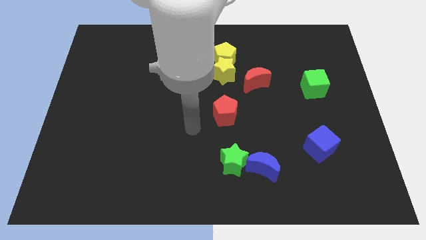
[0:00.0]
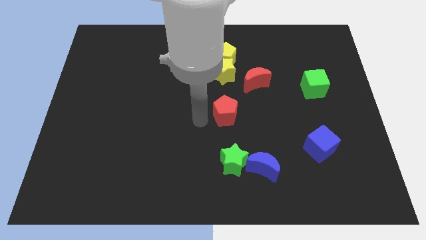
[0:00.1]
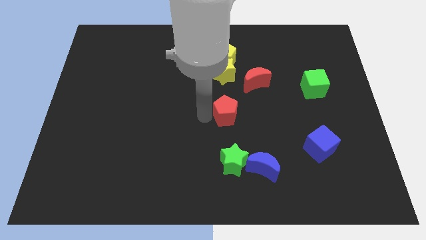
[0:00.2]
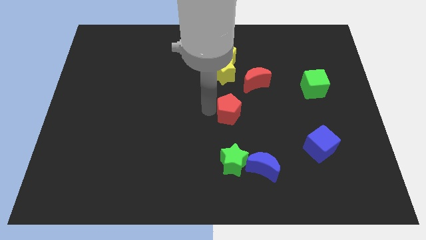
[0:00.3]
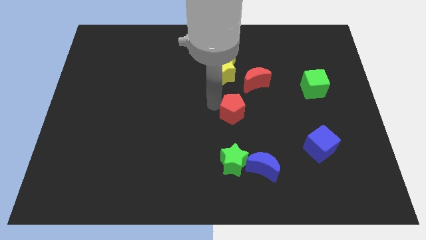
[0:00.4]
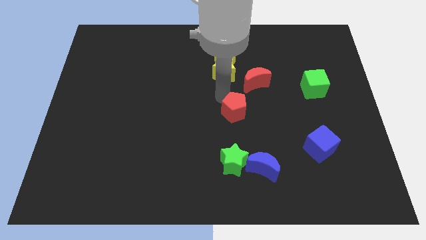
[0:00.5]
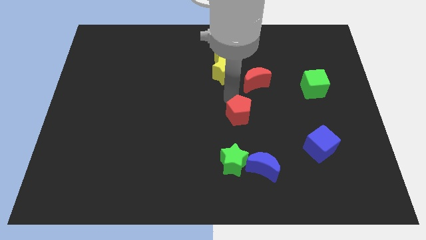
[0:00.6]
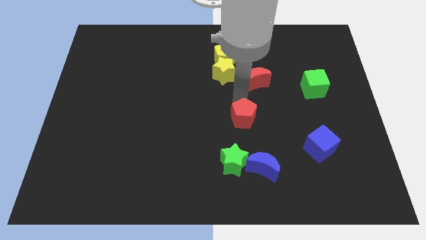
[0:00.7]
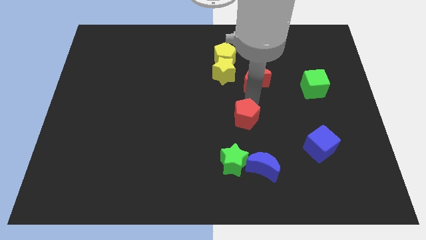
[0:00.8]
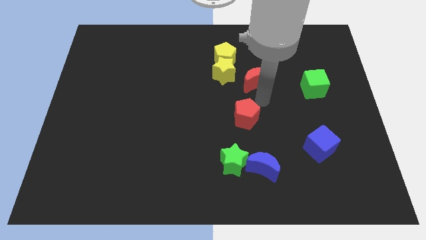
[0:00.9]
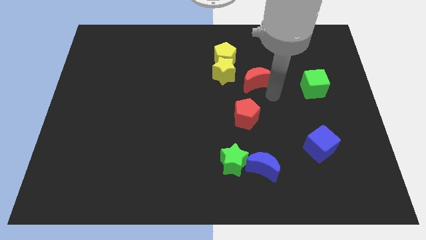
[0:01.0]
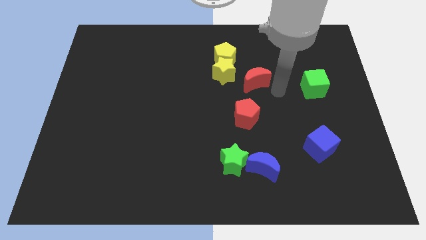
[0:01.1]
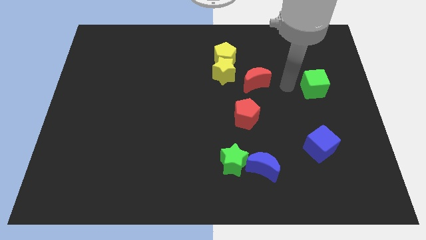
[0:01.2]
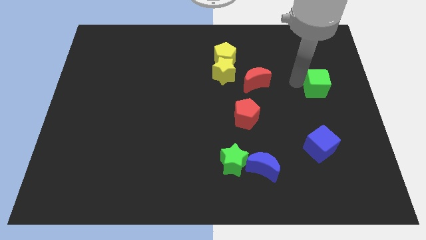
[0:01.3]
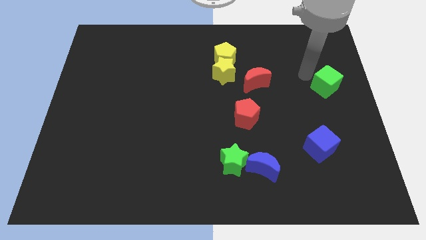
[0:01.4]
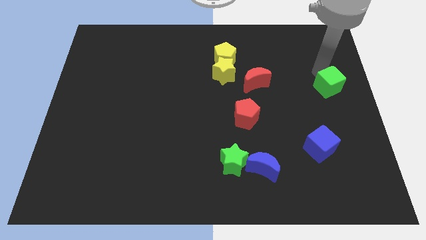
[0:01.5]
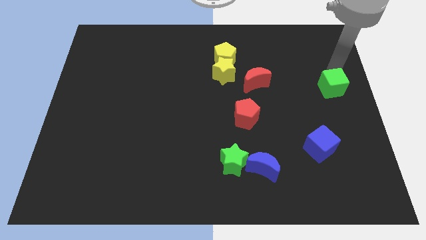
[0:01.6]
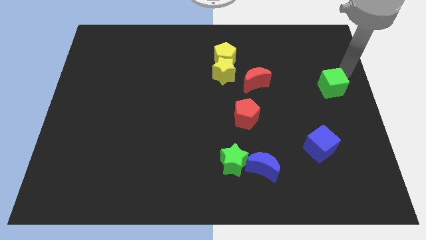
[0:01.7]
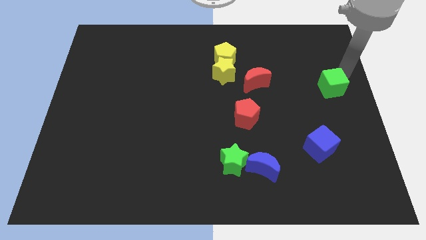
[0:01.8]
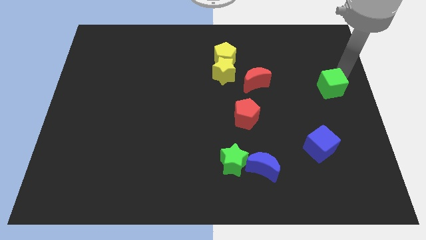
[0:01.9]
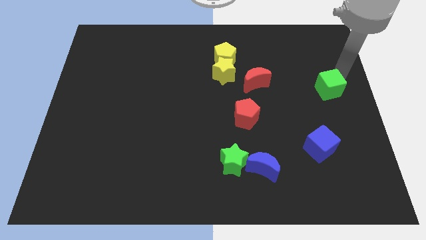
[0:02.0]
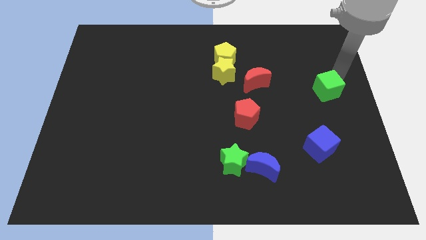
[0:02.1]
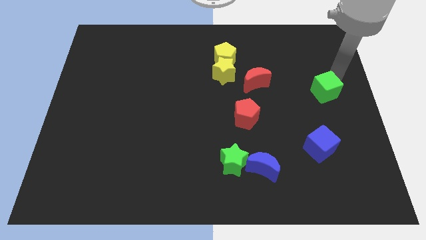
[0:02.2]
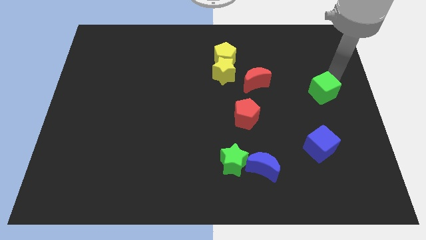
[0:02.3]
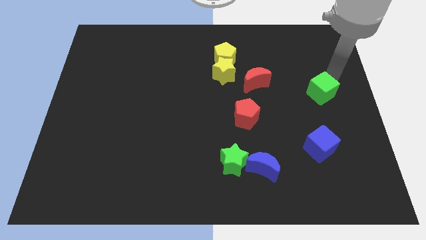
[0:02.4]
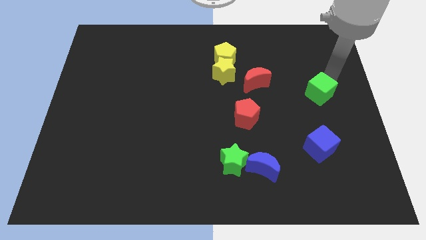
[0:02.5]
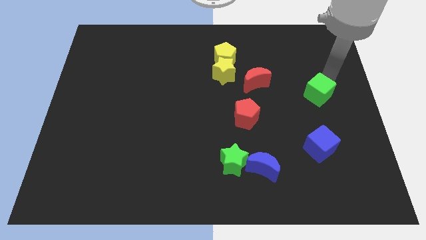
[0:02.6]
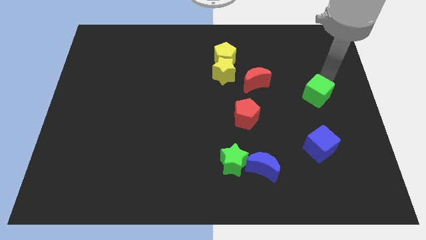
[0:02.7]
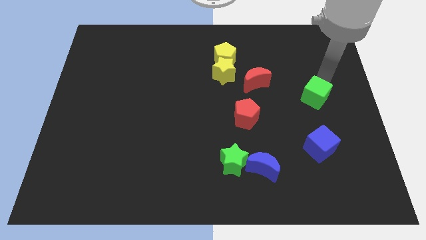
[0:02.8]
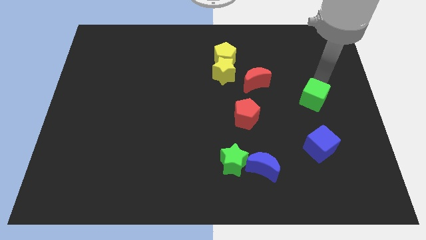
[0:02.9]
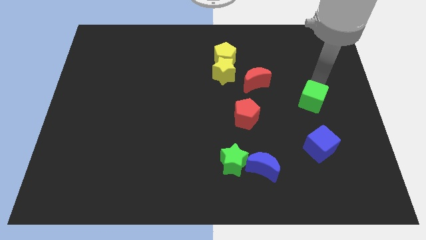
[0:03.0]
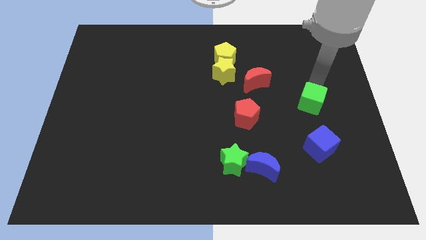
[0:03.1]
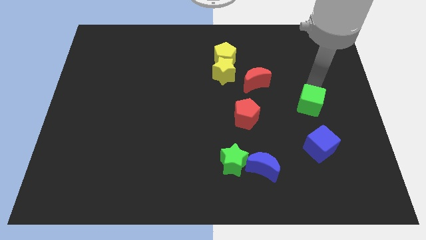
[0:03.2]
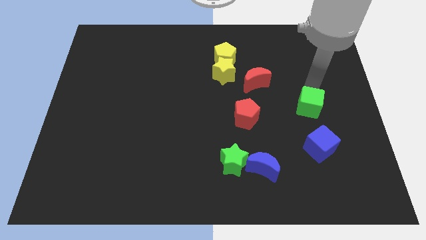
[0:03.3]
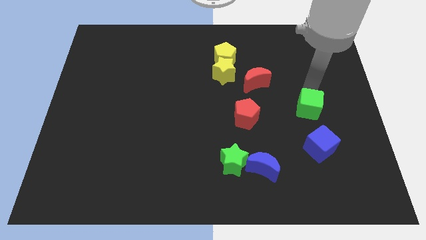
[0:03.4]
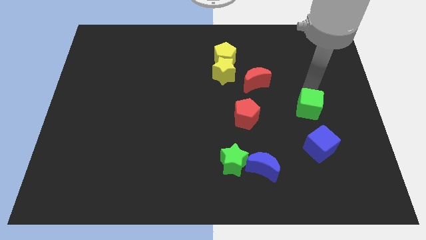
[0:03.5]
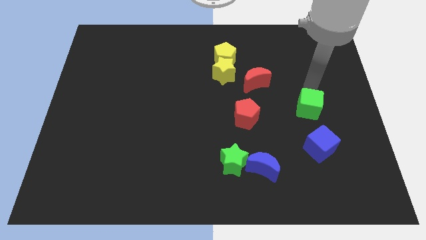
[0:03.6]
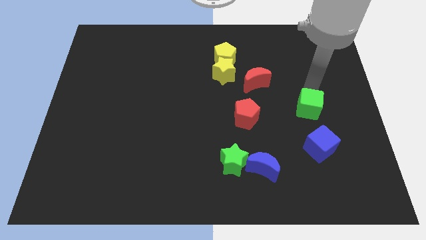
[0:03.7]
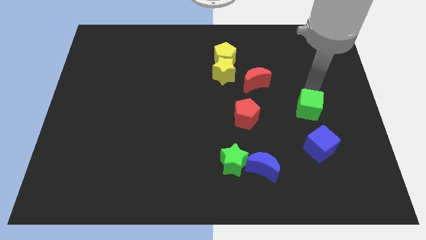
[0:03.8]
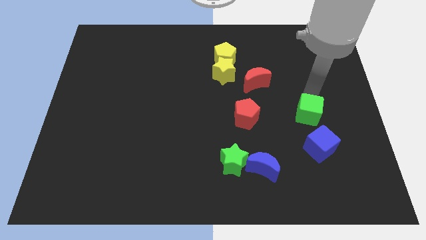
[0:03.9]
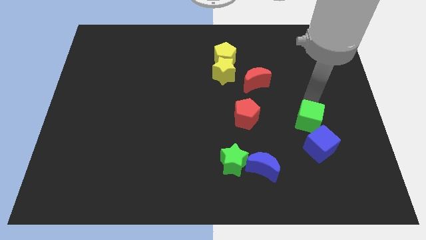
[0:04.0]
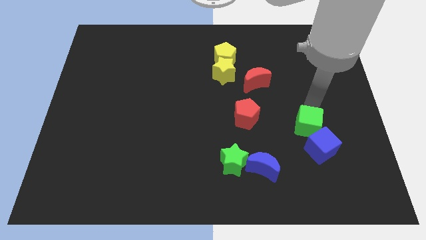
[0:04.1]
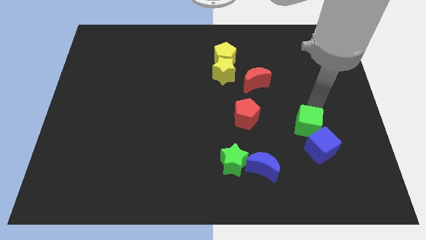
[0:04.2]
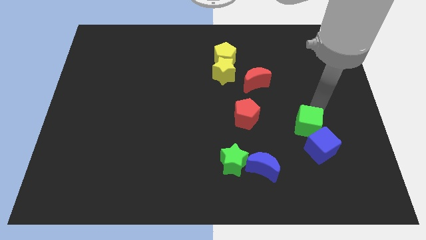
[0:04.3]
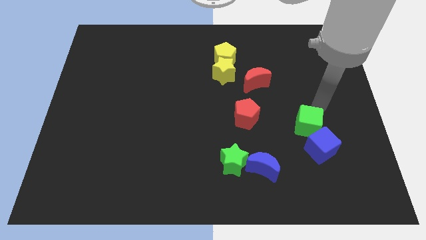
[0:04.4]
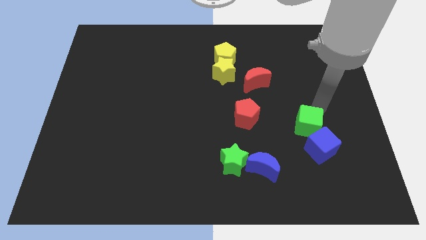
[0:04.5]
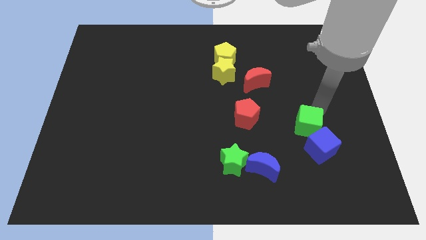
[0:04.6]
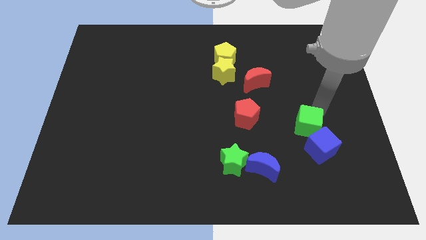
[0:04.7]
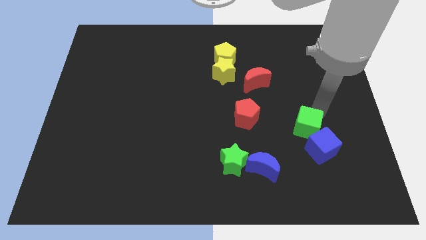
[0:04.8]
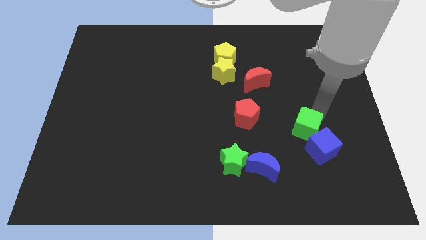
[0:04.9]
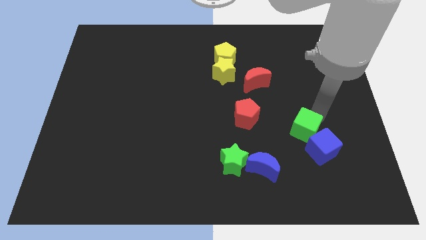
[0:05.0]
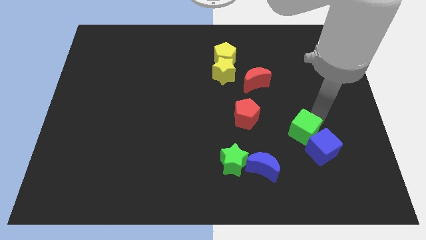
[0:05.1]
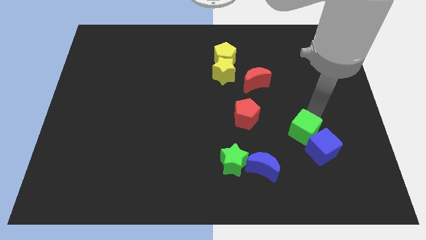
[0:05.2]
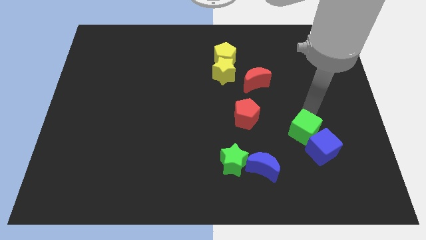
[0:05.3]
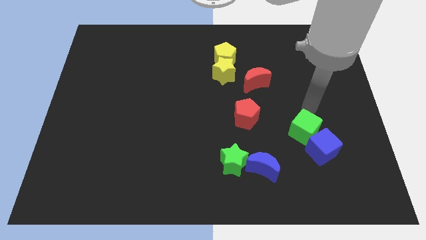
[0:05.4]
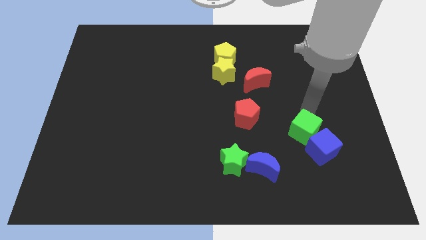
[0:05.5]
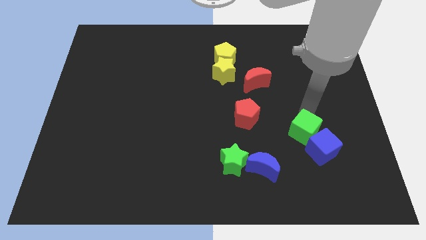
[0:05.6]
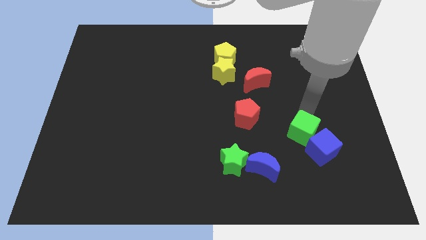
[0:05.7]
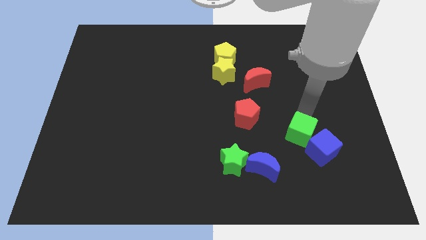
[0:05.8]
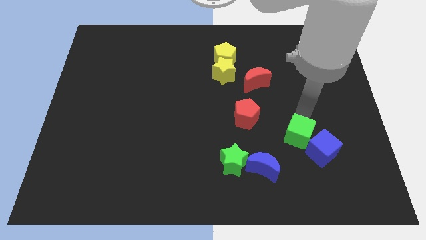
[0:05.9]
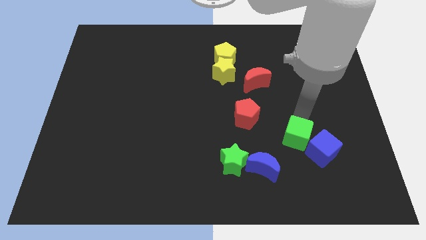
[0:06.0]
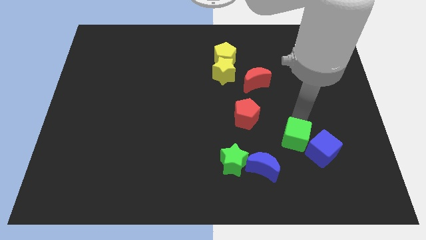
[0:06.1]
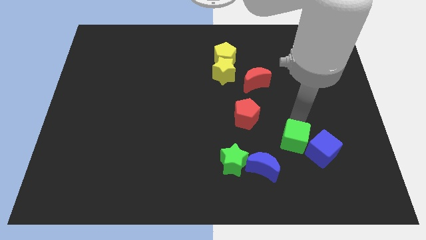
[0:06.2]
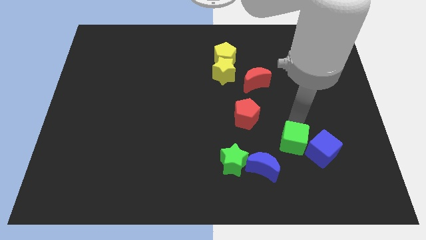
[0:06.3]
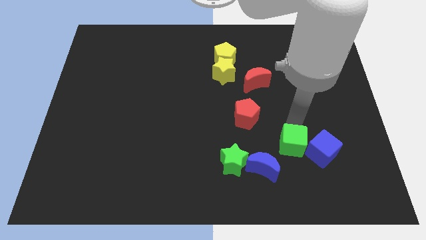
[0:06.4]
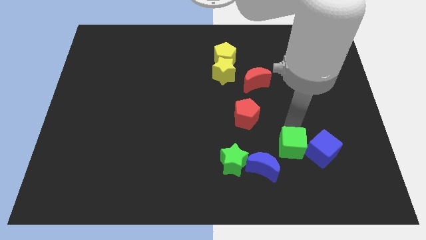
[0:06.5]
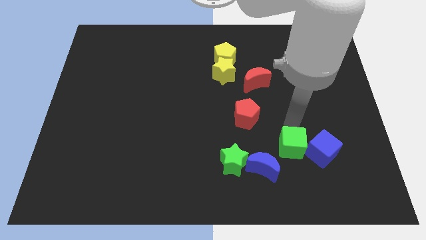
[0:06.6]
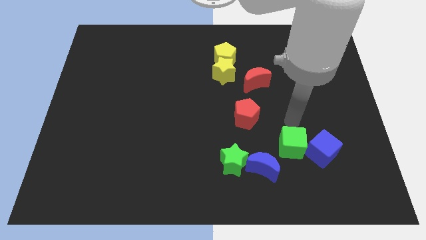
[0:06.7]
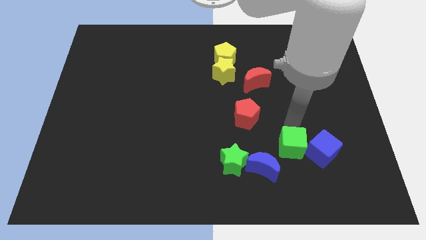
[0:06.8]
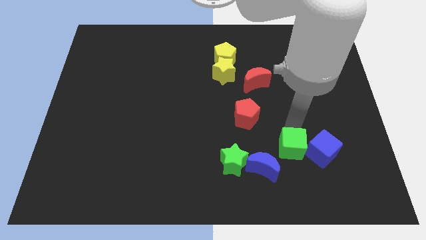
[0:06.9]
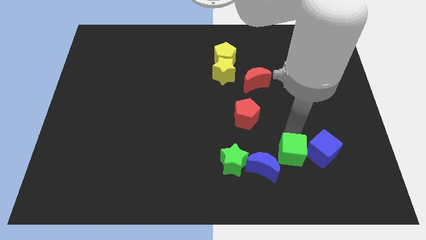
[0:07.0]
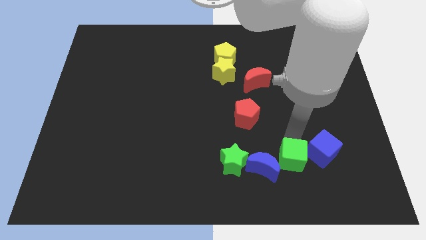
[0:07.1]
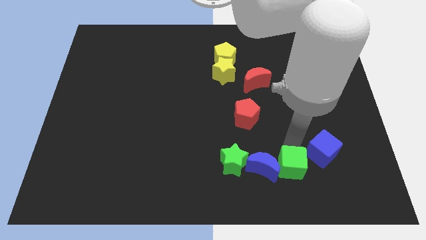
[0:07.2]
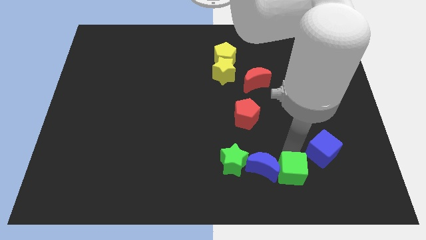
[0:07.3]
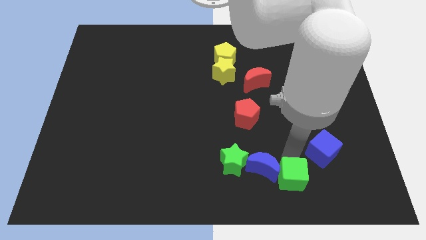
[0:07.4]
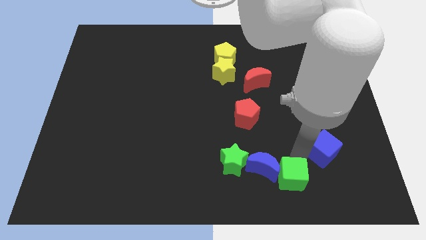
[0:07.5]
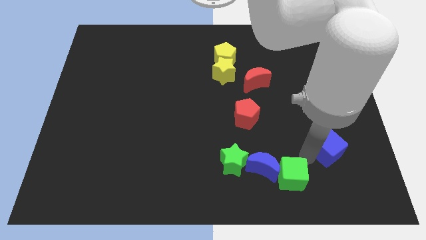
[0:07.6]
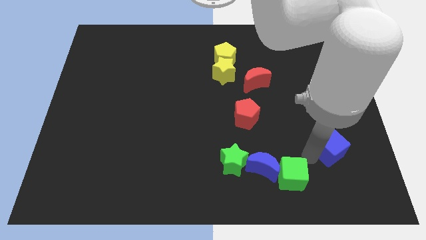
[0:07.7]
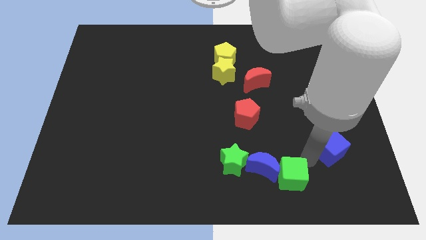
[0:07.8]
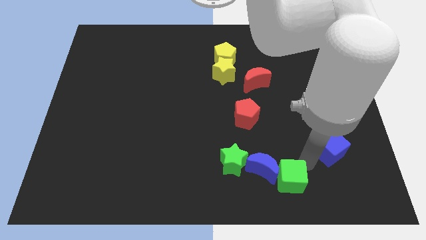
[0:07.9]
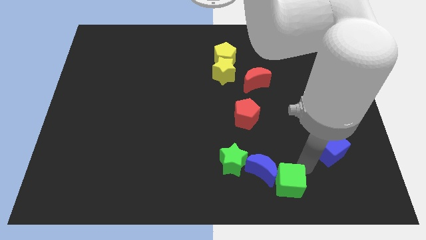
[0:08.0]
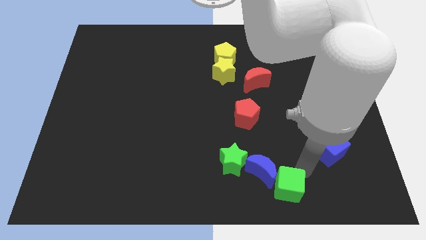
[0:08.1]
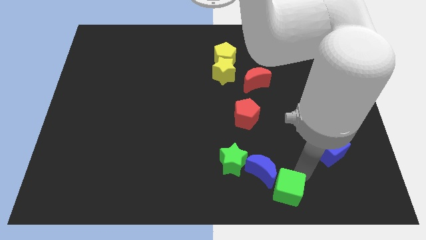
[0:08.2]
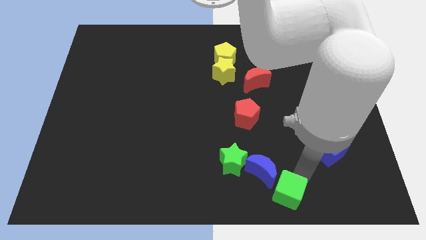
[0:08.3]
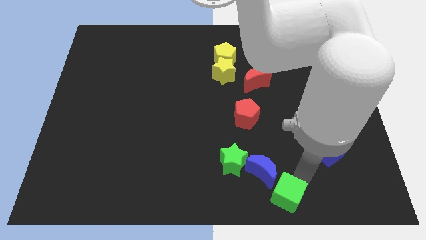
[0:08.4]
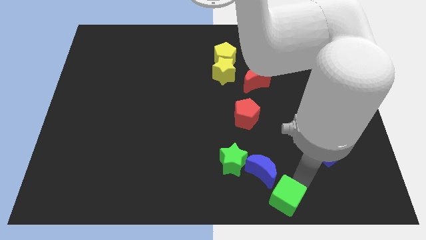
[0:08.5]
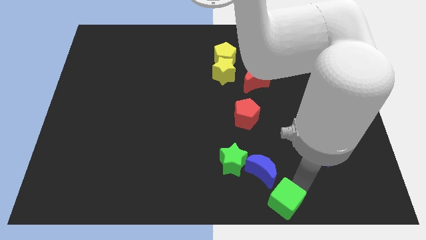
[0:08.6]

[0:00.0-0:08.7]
push the green cube to the bottom
